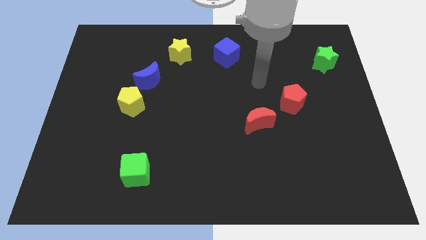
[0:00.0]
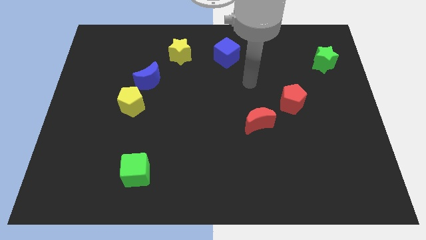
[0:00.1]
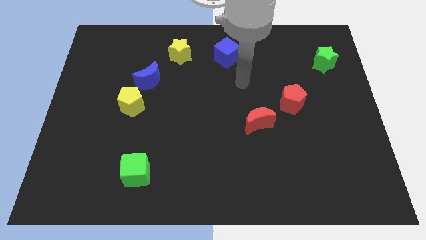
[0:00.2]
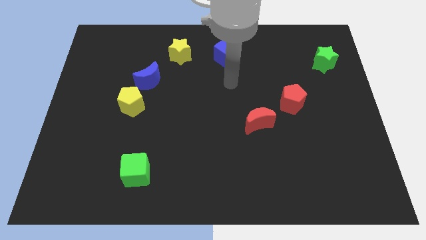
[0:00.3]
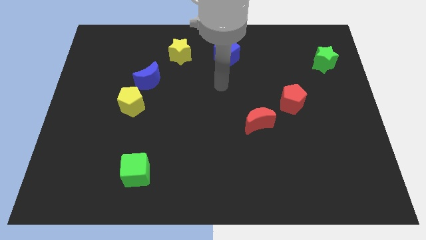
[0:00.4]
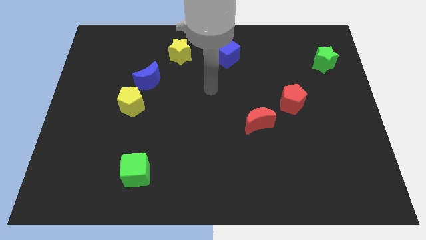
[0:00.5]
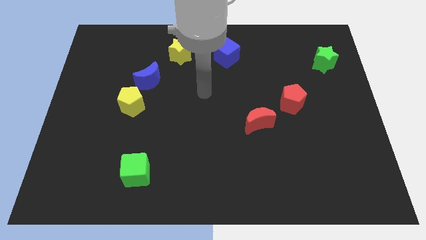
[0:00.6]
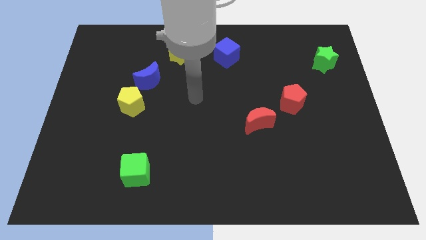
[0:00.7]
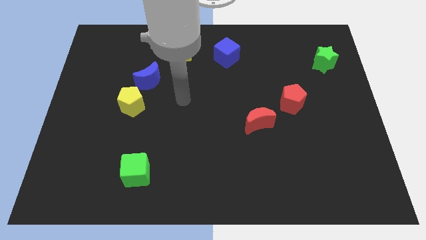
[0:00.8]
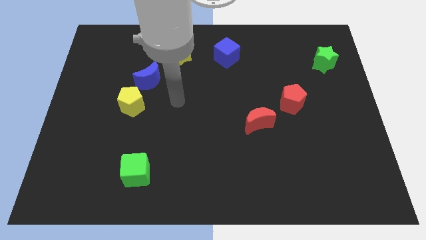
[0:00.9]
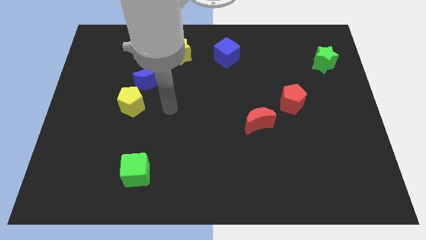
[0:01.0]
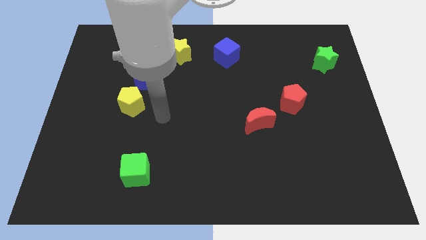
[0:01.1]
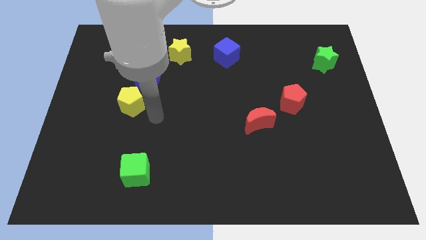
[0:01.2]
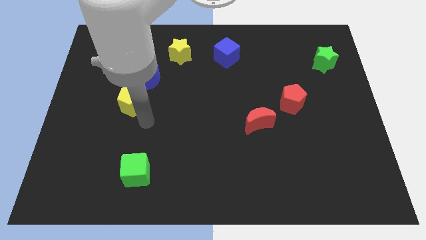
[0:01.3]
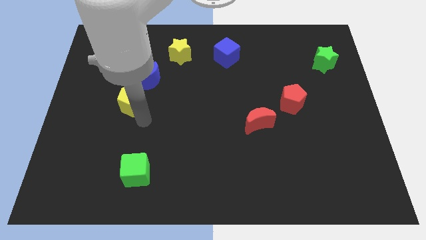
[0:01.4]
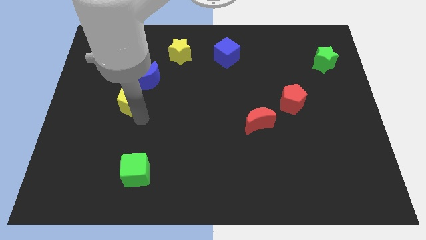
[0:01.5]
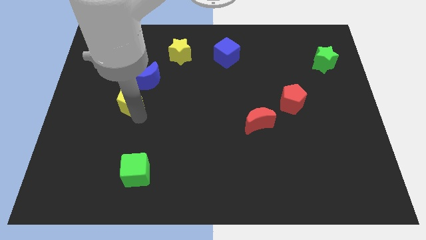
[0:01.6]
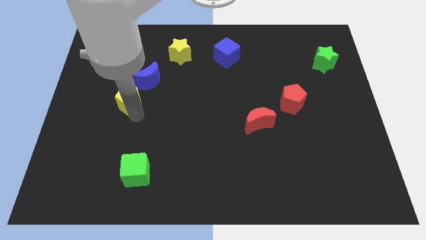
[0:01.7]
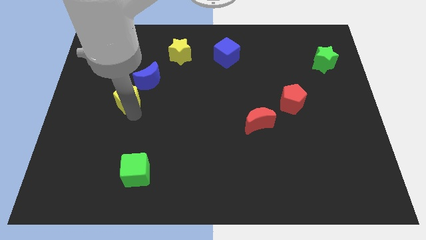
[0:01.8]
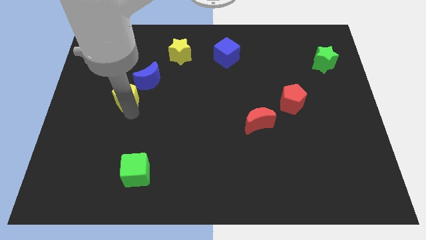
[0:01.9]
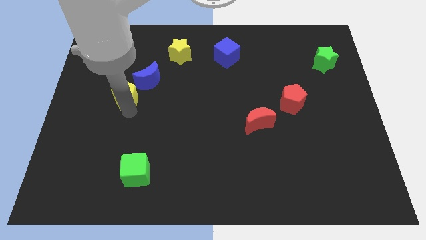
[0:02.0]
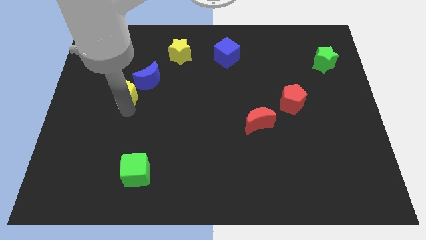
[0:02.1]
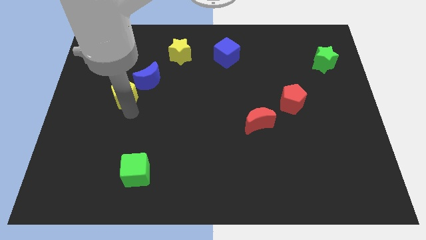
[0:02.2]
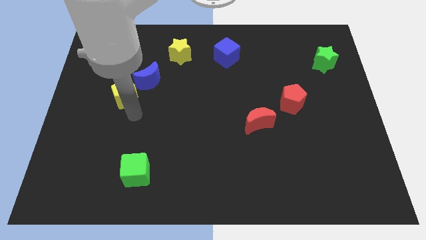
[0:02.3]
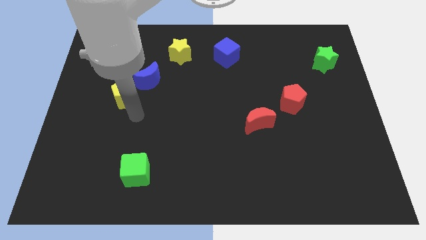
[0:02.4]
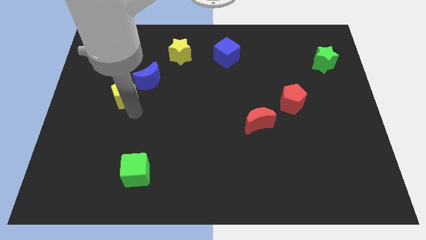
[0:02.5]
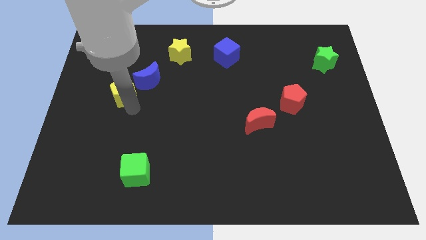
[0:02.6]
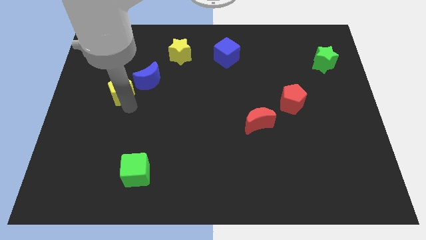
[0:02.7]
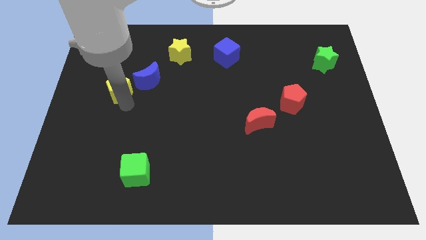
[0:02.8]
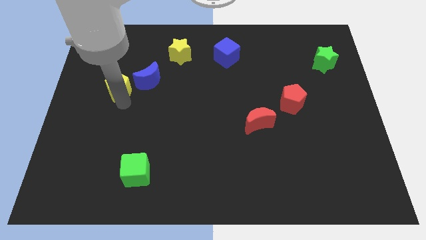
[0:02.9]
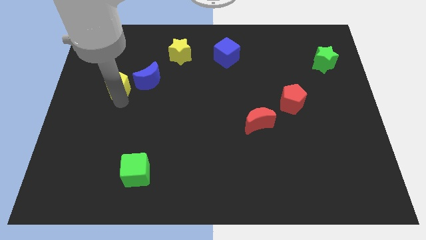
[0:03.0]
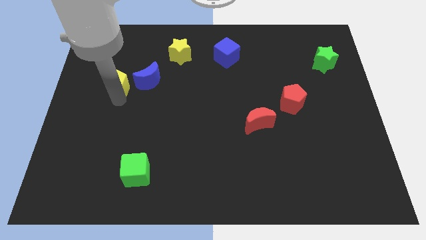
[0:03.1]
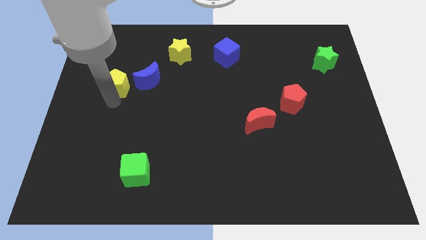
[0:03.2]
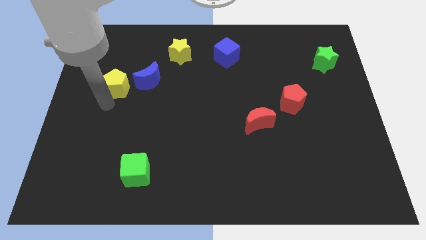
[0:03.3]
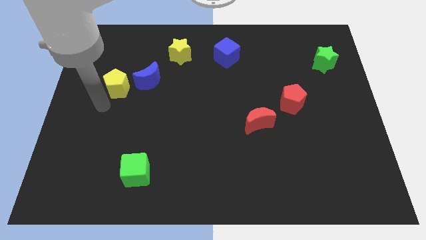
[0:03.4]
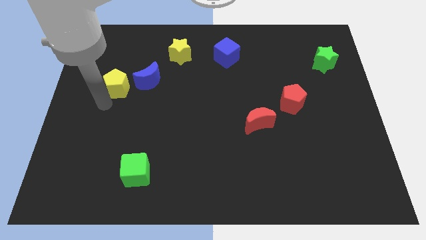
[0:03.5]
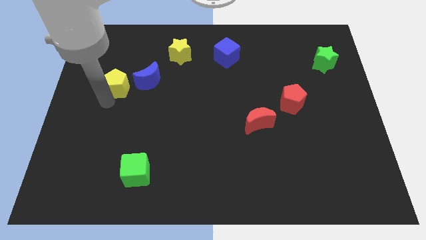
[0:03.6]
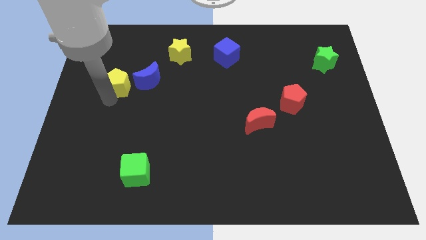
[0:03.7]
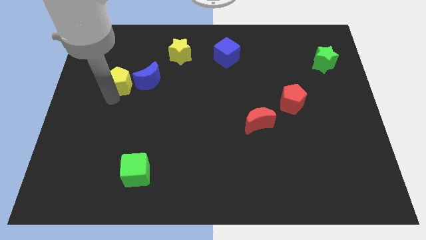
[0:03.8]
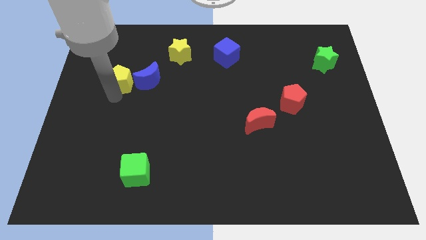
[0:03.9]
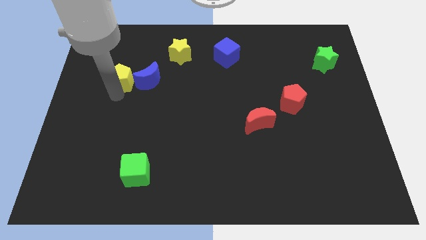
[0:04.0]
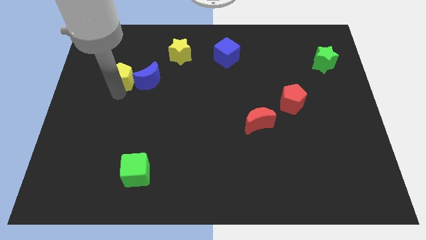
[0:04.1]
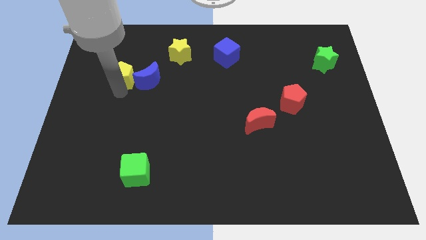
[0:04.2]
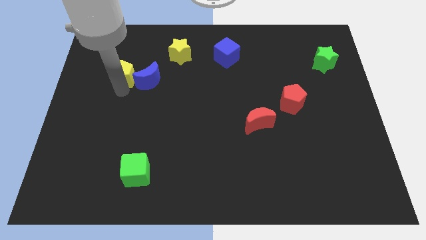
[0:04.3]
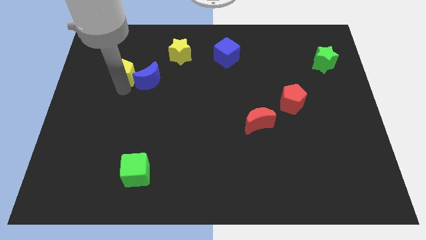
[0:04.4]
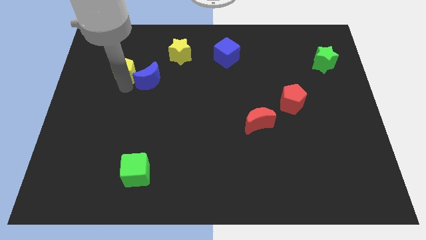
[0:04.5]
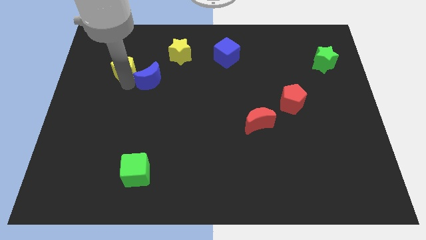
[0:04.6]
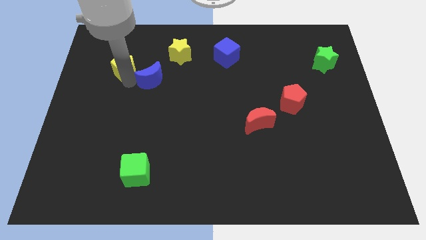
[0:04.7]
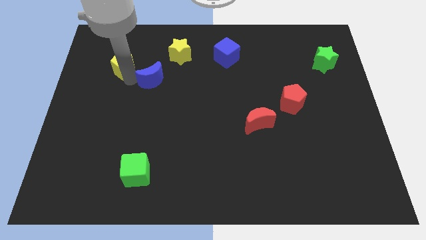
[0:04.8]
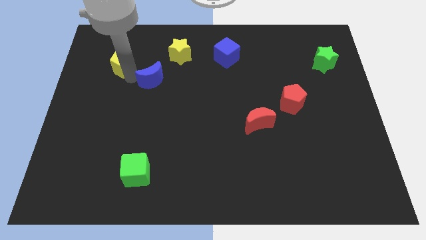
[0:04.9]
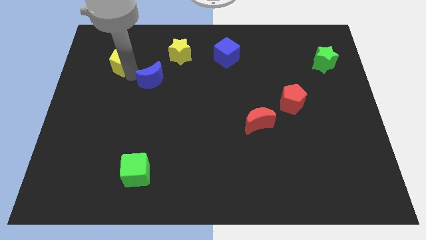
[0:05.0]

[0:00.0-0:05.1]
move the yellow pentagon to the left side of the yellow star

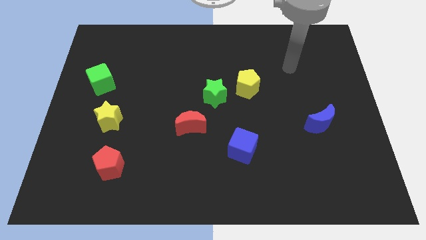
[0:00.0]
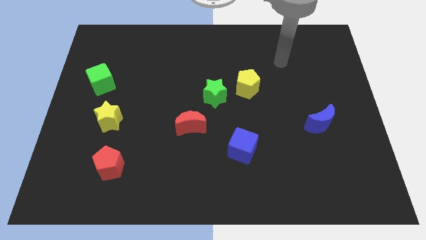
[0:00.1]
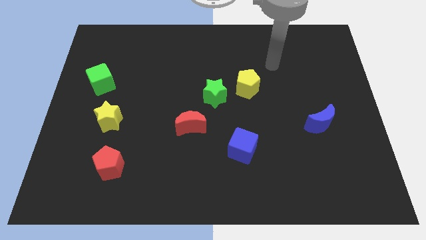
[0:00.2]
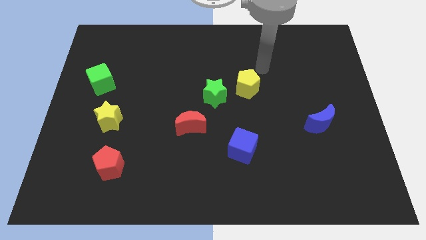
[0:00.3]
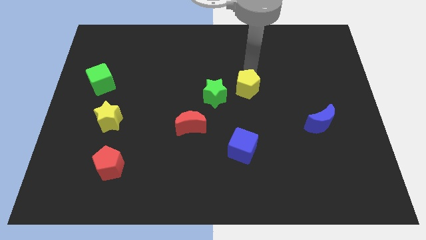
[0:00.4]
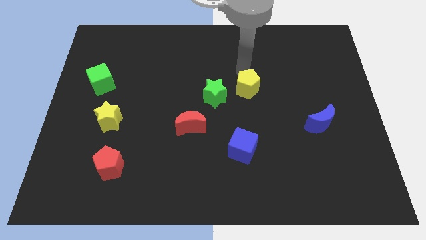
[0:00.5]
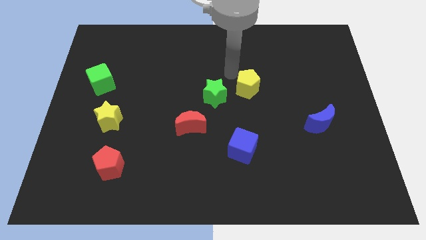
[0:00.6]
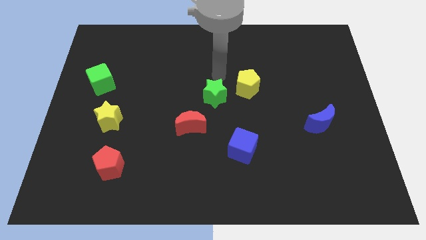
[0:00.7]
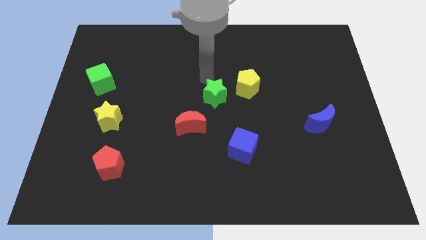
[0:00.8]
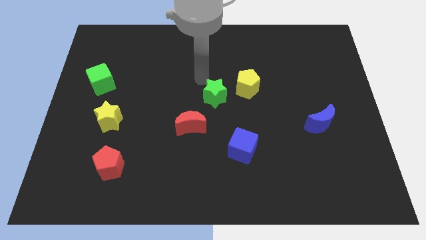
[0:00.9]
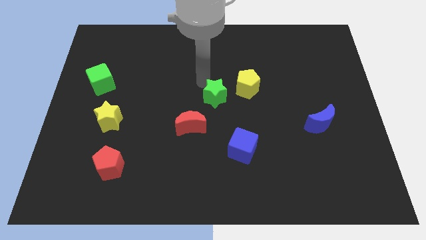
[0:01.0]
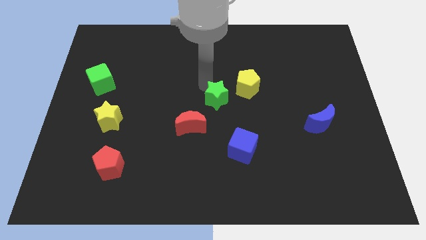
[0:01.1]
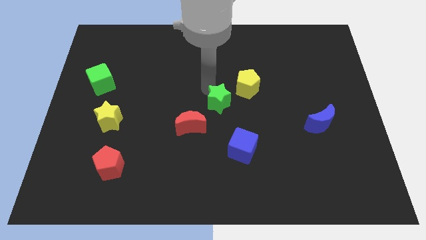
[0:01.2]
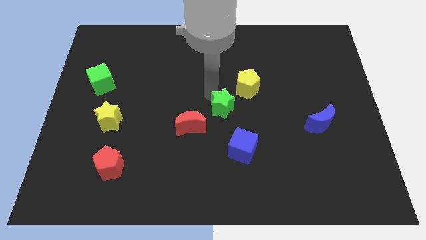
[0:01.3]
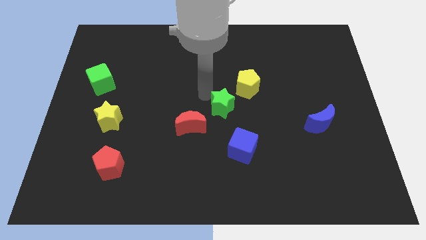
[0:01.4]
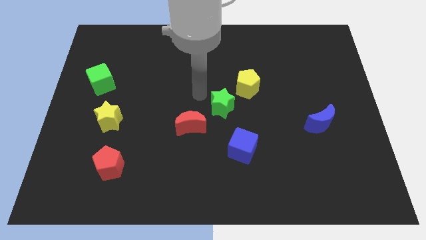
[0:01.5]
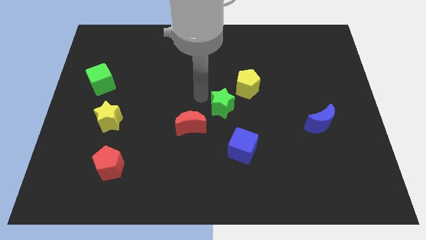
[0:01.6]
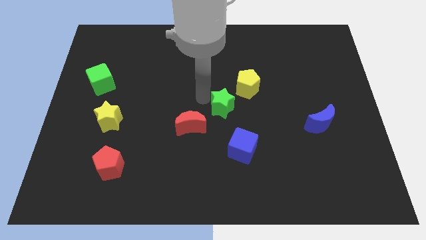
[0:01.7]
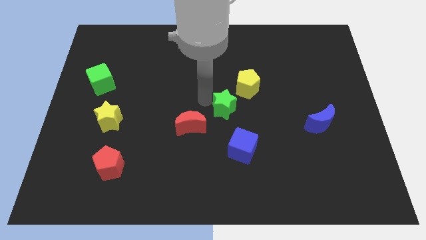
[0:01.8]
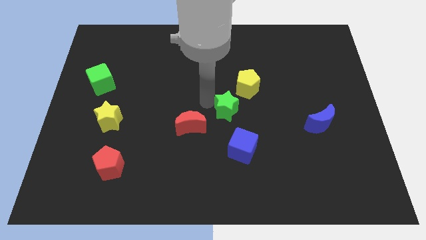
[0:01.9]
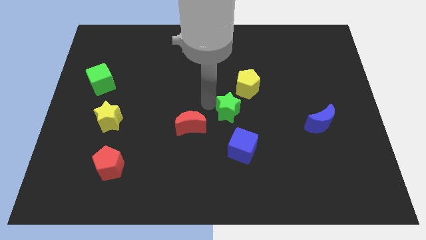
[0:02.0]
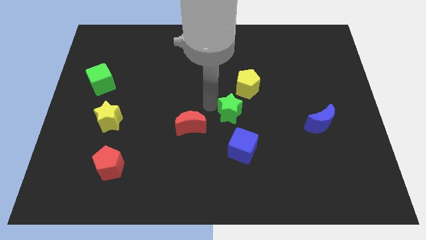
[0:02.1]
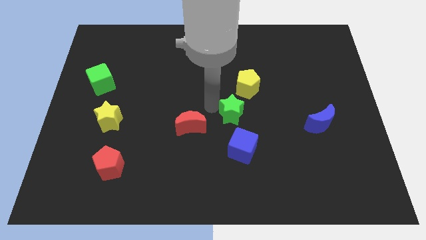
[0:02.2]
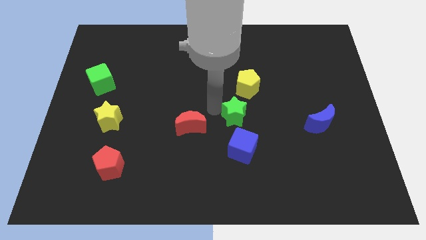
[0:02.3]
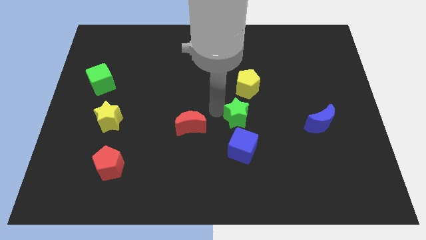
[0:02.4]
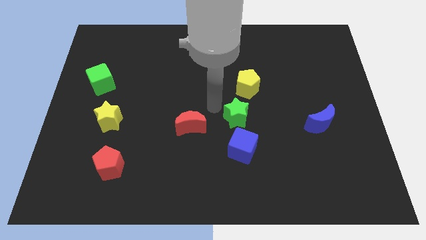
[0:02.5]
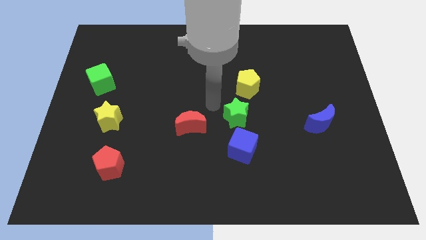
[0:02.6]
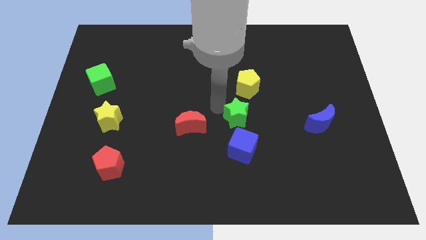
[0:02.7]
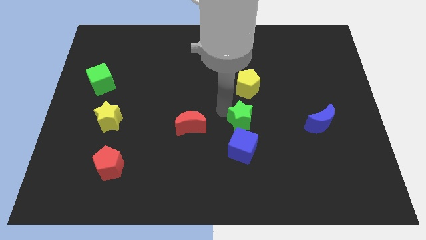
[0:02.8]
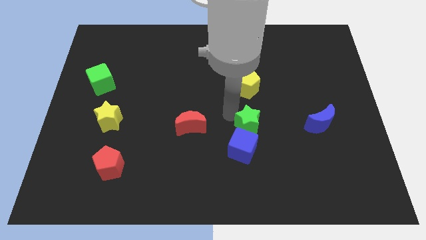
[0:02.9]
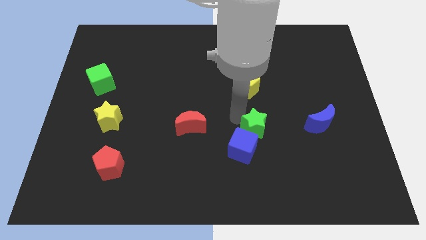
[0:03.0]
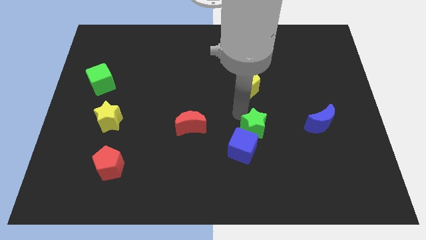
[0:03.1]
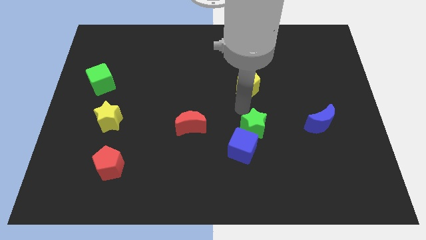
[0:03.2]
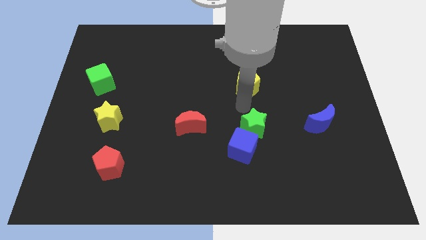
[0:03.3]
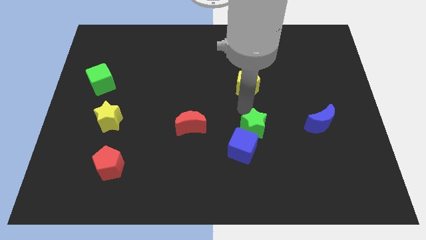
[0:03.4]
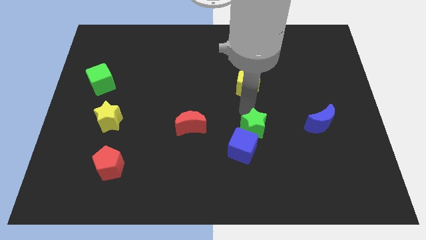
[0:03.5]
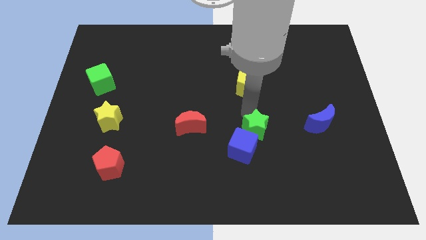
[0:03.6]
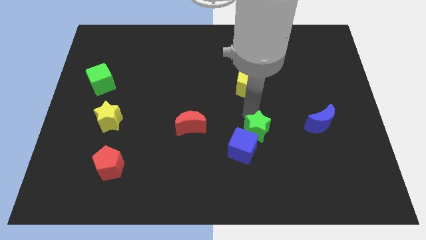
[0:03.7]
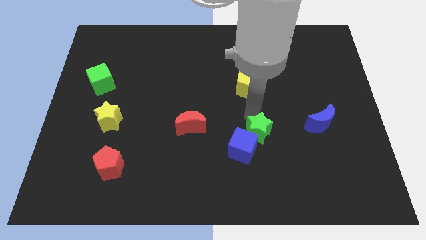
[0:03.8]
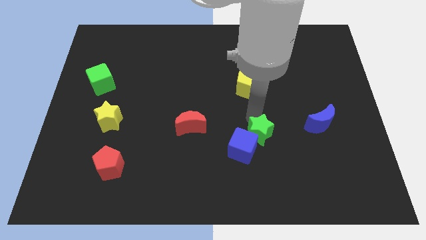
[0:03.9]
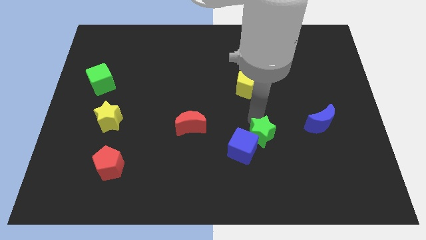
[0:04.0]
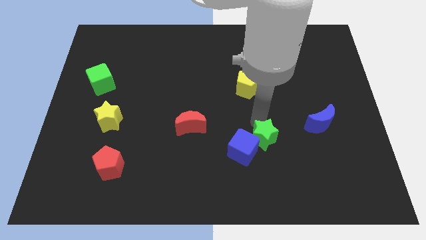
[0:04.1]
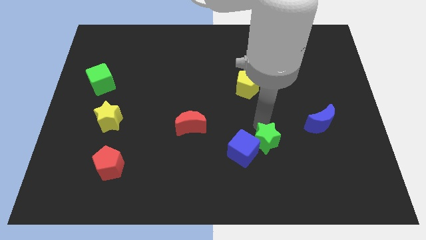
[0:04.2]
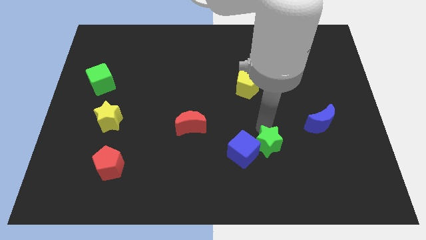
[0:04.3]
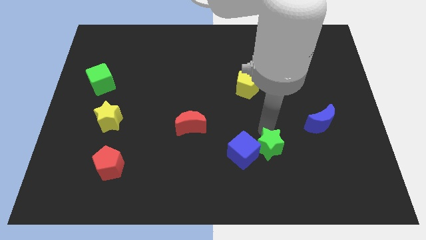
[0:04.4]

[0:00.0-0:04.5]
slide the green star to the bottom right of the blue cube
